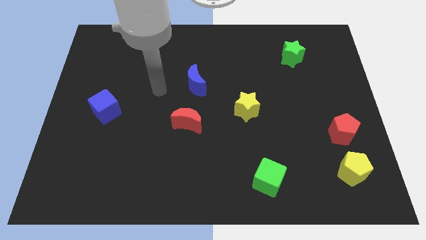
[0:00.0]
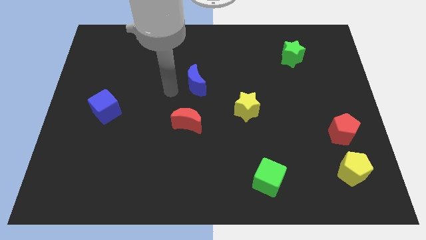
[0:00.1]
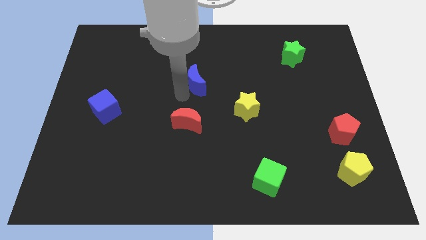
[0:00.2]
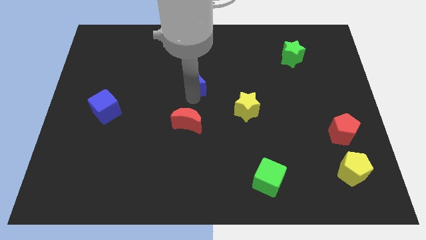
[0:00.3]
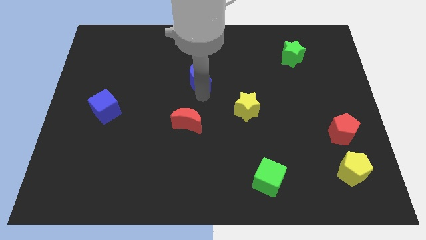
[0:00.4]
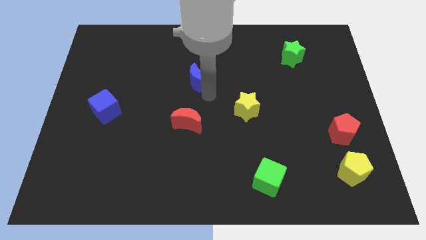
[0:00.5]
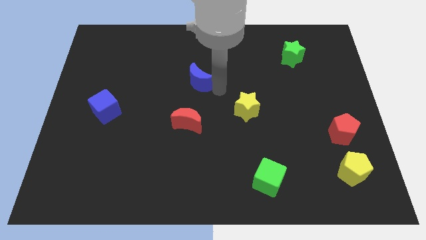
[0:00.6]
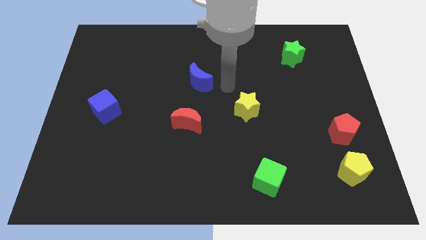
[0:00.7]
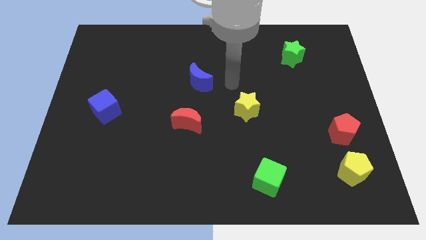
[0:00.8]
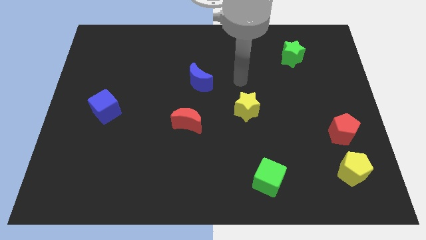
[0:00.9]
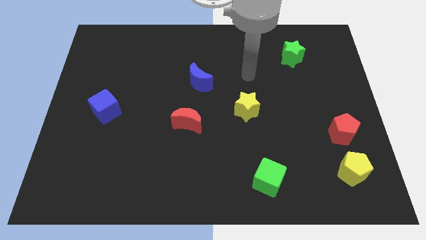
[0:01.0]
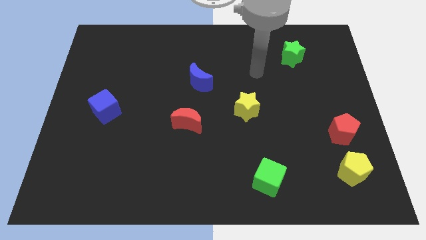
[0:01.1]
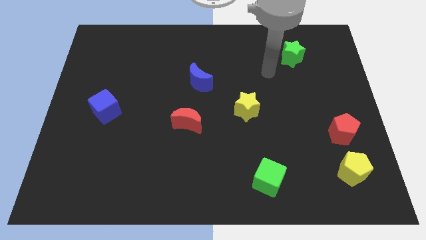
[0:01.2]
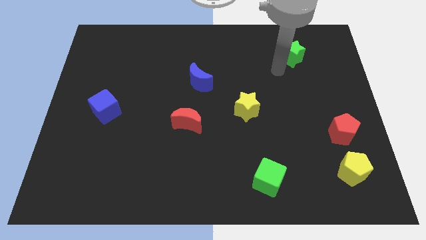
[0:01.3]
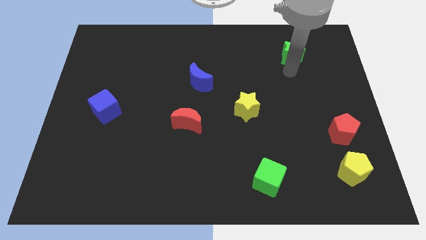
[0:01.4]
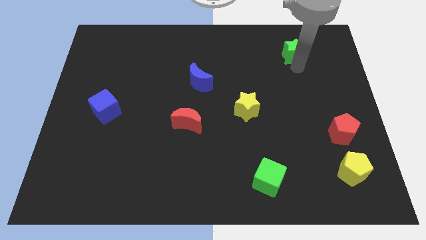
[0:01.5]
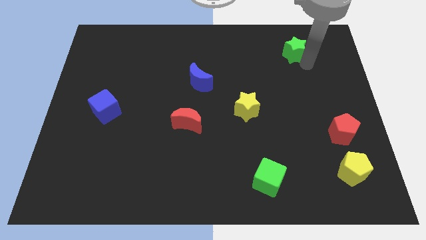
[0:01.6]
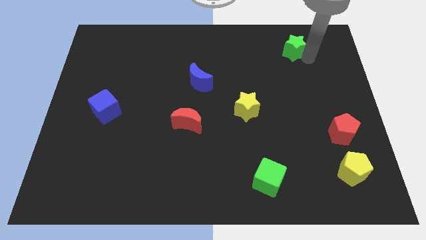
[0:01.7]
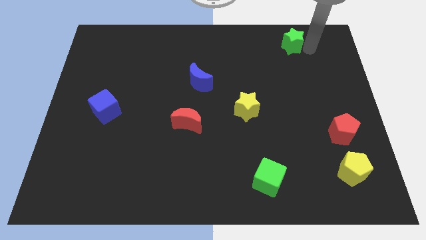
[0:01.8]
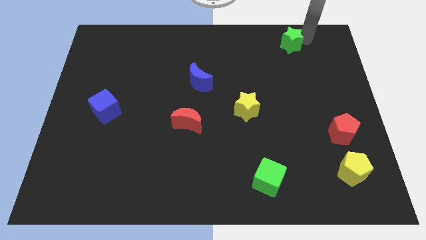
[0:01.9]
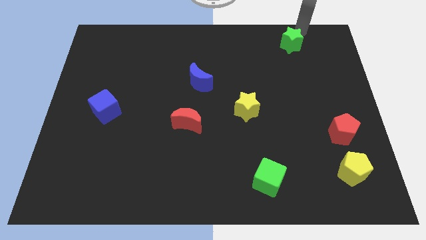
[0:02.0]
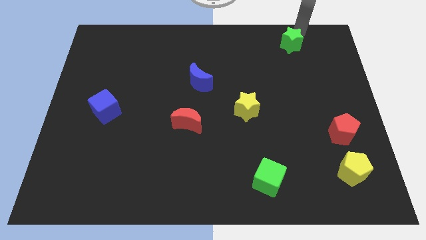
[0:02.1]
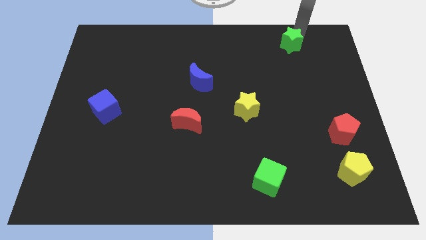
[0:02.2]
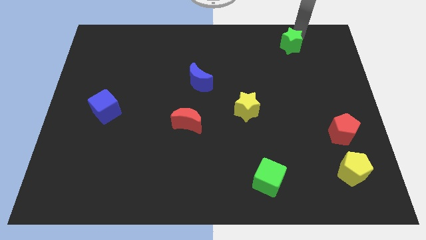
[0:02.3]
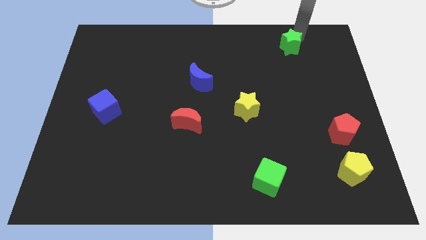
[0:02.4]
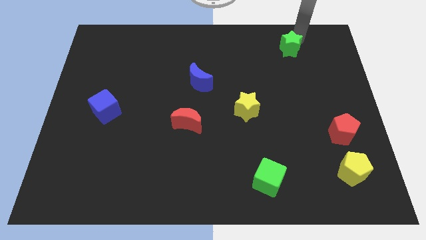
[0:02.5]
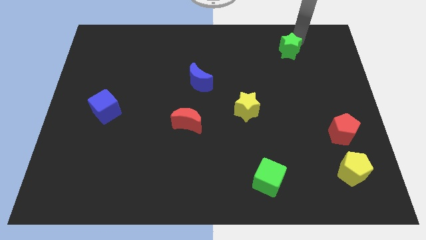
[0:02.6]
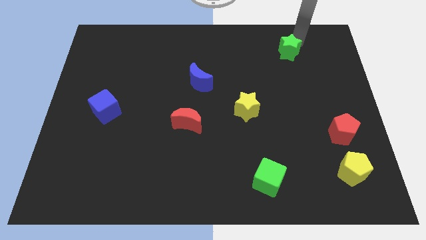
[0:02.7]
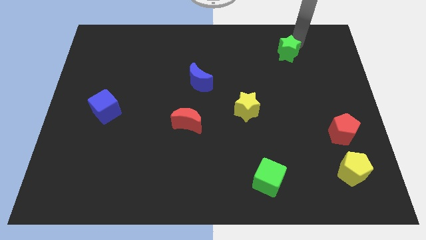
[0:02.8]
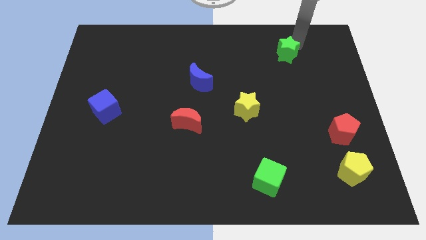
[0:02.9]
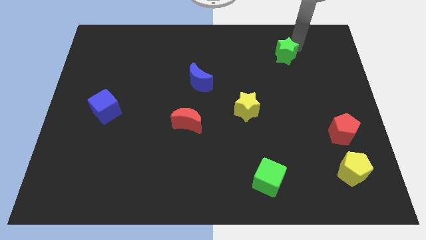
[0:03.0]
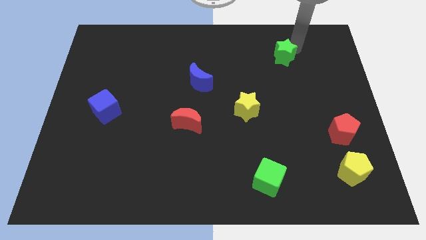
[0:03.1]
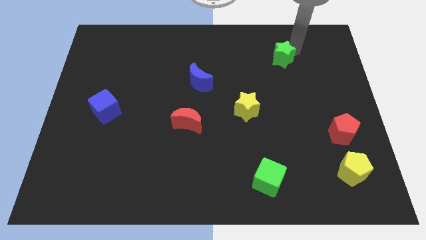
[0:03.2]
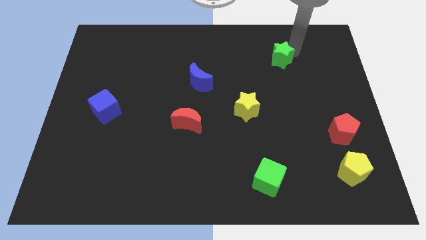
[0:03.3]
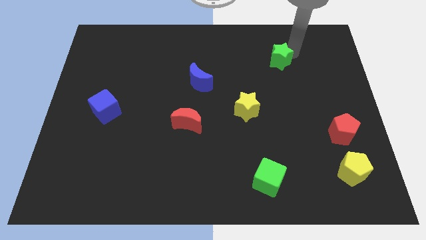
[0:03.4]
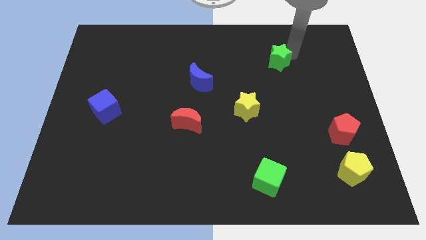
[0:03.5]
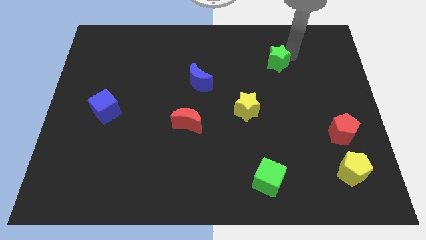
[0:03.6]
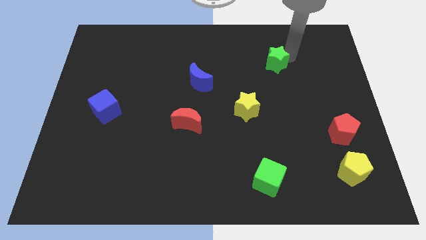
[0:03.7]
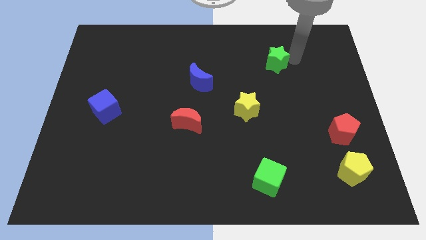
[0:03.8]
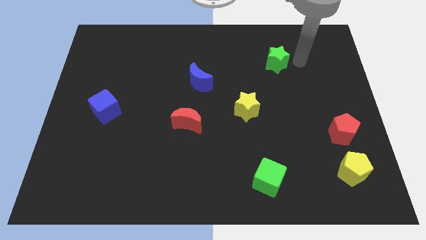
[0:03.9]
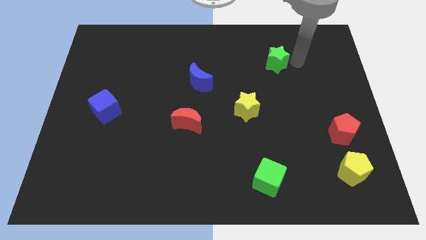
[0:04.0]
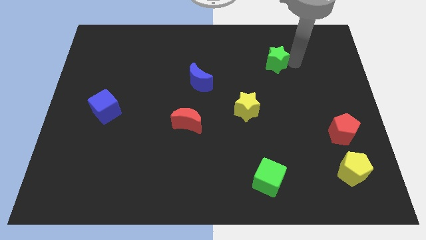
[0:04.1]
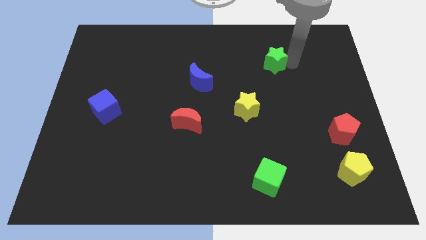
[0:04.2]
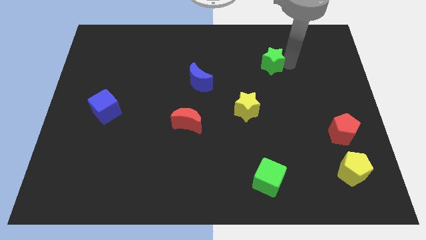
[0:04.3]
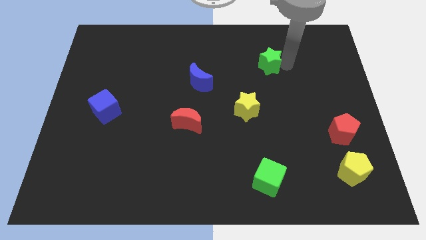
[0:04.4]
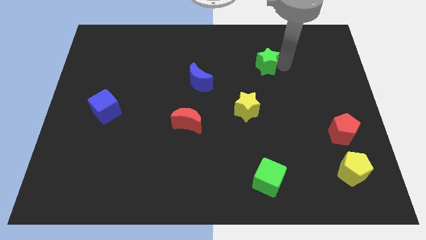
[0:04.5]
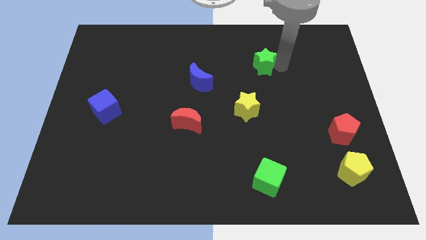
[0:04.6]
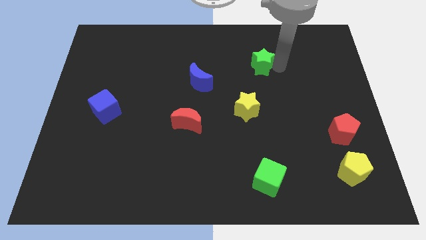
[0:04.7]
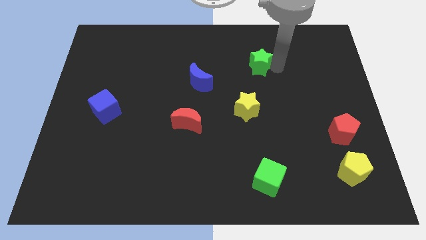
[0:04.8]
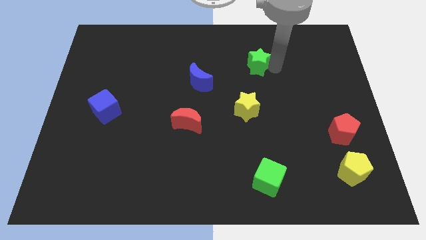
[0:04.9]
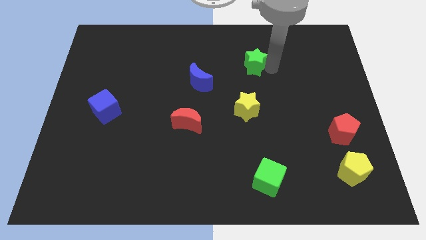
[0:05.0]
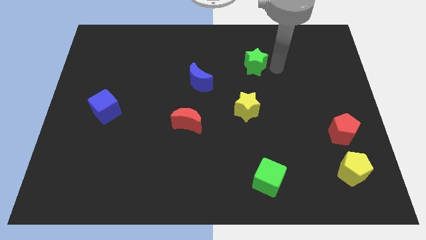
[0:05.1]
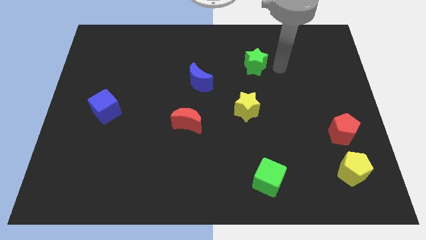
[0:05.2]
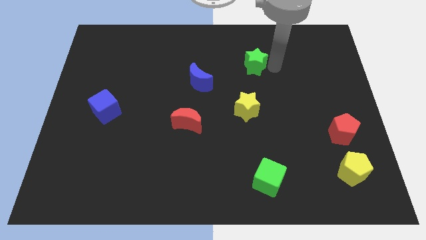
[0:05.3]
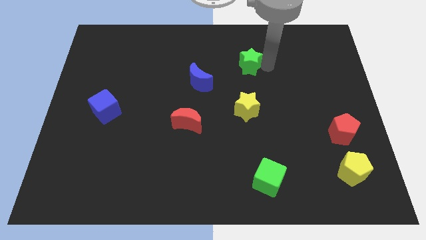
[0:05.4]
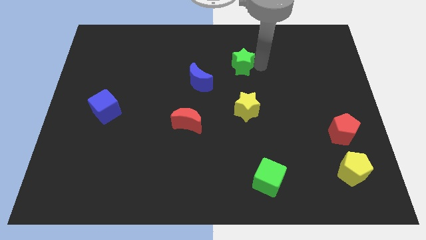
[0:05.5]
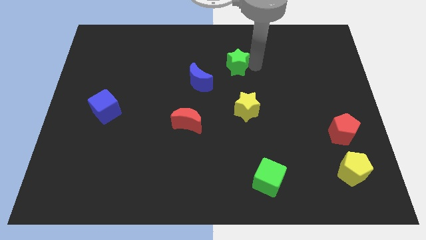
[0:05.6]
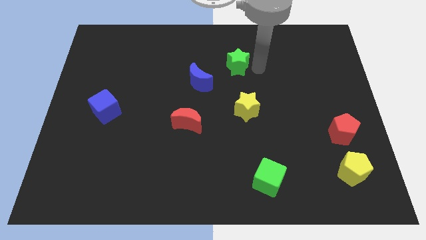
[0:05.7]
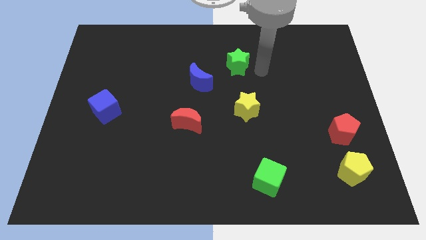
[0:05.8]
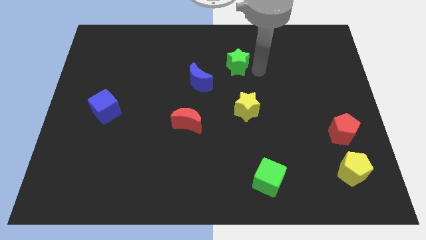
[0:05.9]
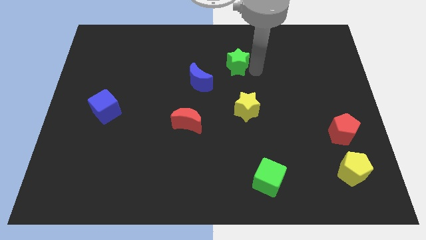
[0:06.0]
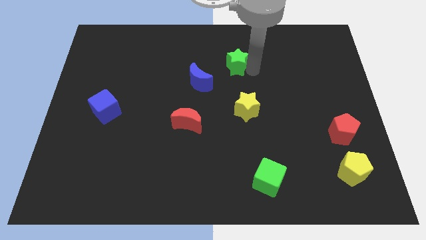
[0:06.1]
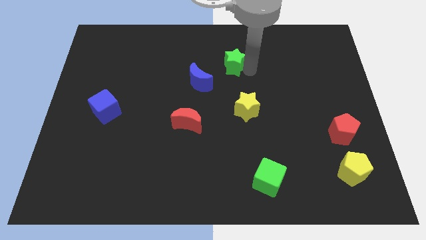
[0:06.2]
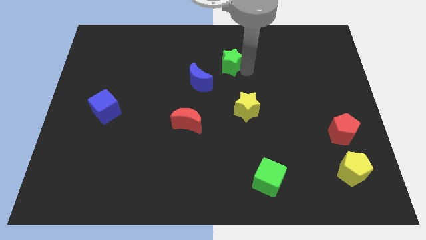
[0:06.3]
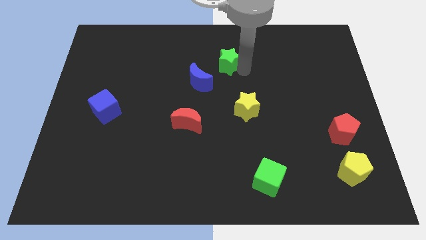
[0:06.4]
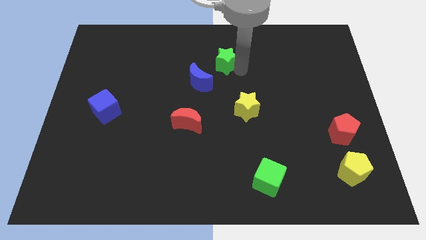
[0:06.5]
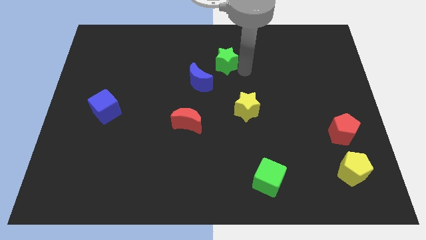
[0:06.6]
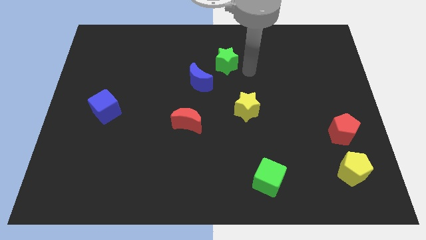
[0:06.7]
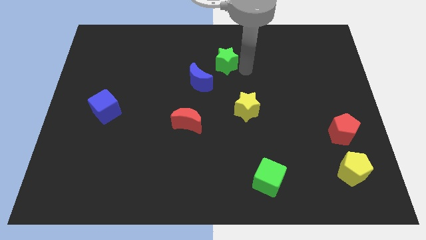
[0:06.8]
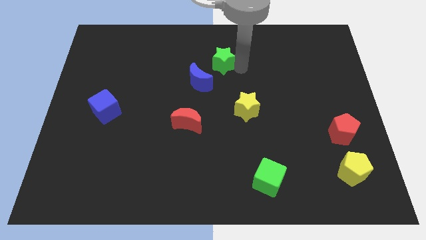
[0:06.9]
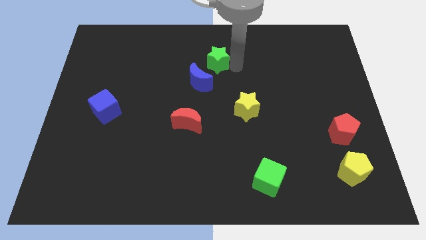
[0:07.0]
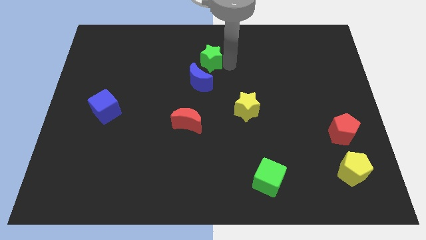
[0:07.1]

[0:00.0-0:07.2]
slide the green star to the left

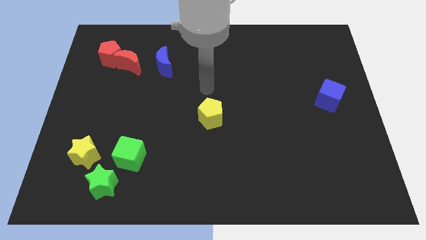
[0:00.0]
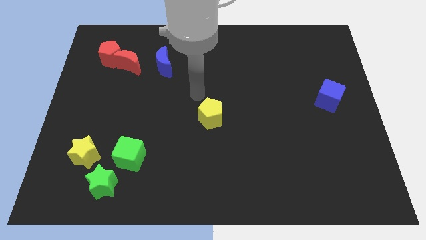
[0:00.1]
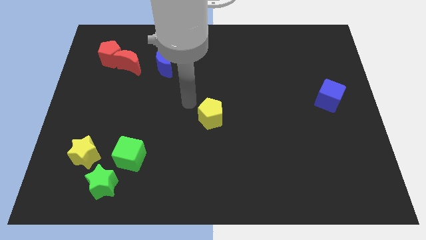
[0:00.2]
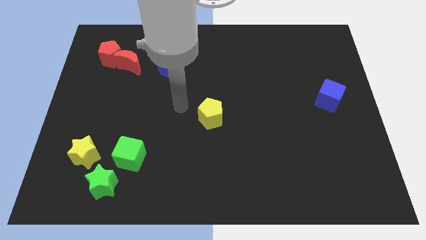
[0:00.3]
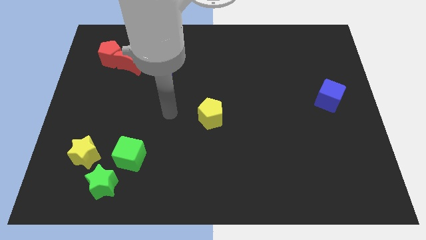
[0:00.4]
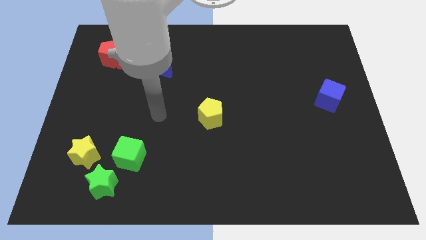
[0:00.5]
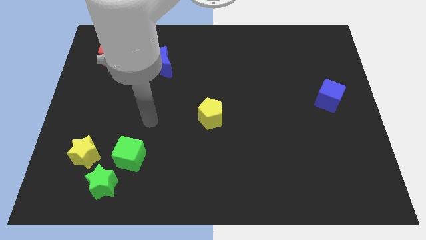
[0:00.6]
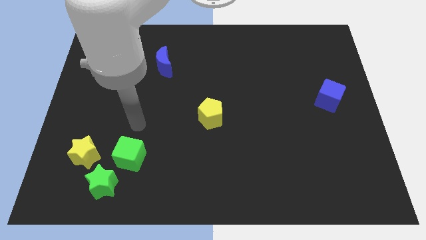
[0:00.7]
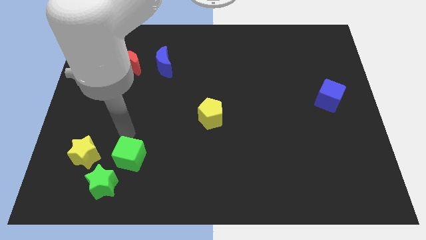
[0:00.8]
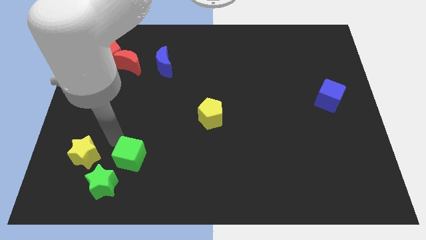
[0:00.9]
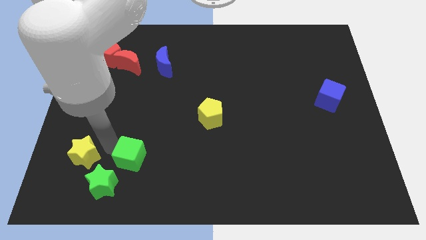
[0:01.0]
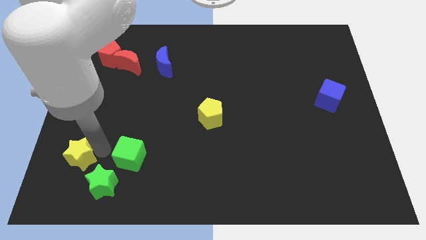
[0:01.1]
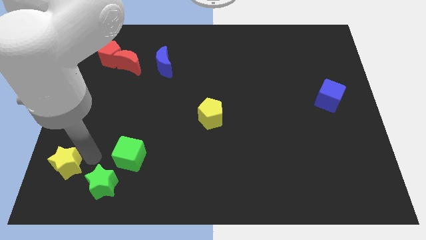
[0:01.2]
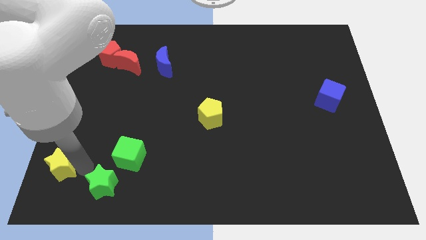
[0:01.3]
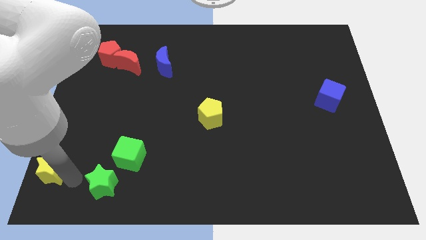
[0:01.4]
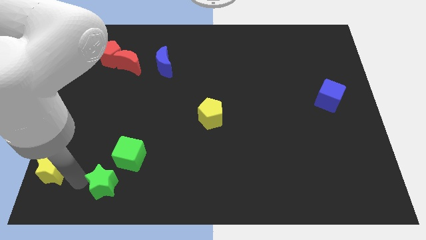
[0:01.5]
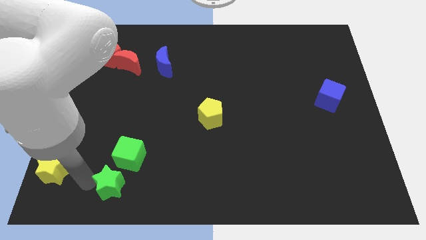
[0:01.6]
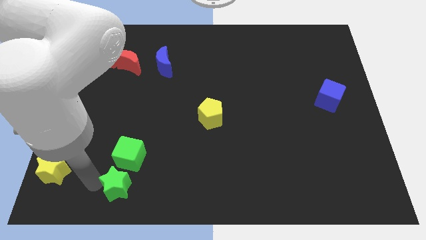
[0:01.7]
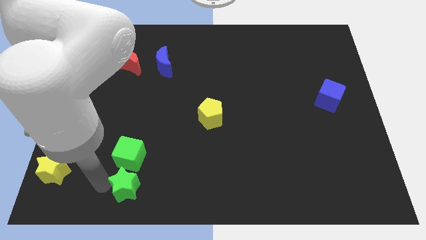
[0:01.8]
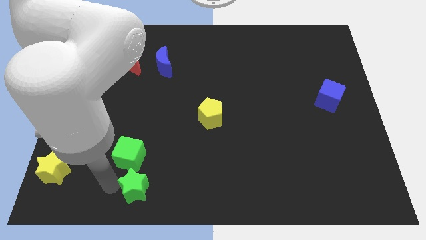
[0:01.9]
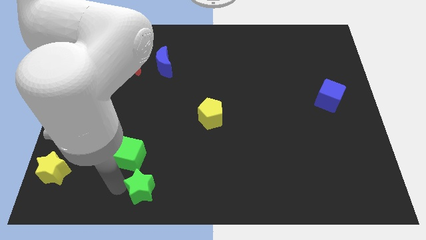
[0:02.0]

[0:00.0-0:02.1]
slide the green star to the right slightly
